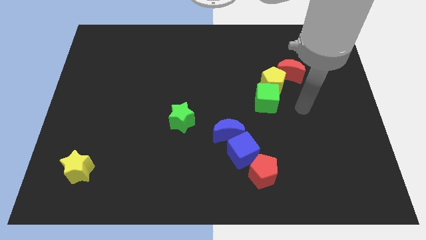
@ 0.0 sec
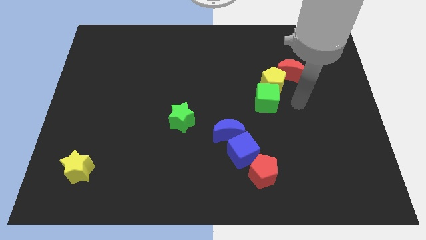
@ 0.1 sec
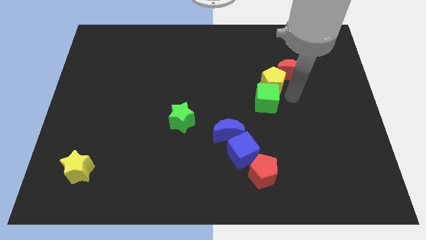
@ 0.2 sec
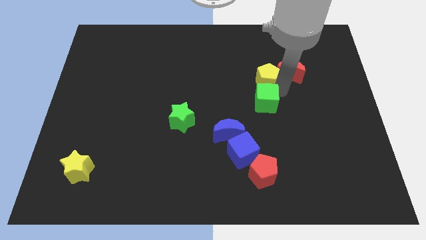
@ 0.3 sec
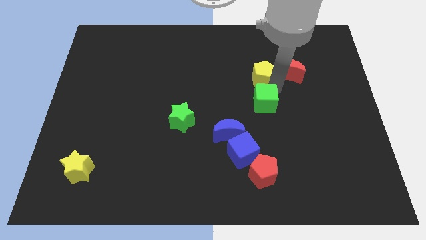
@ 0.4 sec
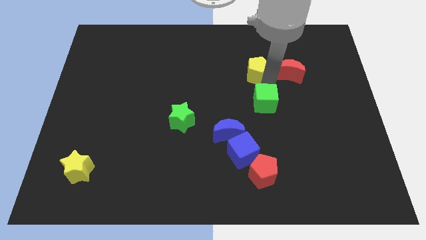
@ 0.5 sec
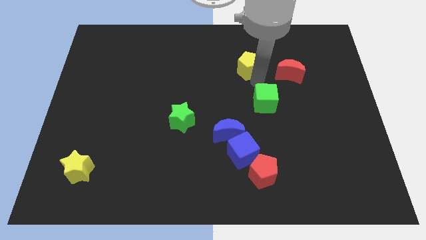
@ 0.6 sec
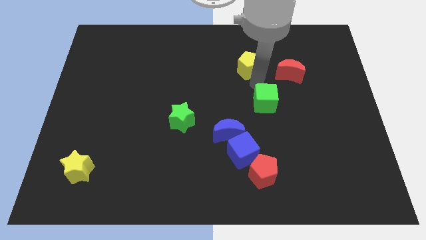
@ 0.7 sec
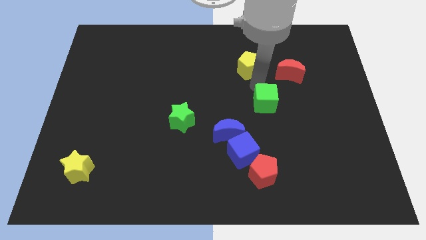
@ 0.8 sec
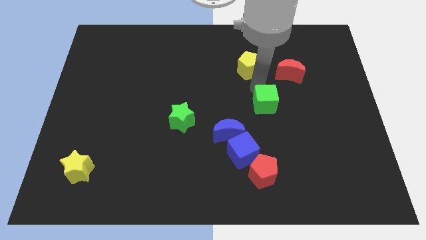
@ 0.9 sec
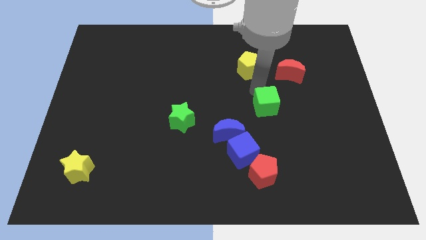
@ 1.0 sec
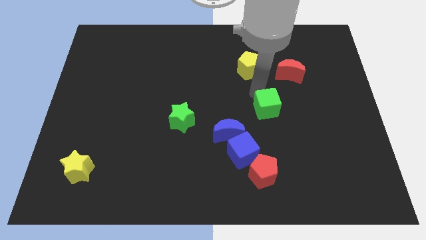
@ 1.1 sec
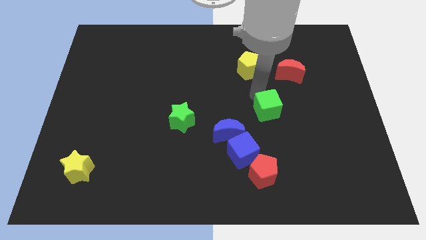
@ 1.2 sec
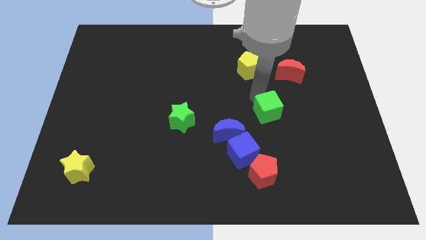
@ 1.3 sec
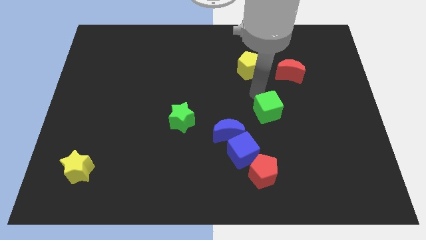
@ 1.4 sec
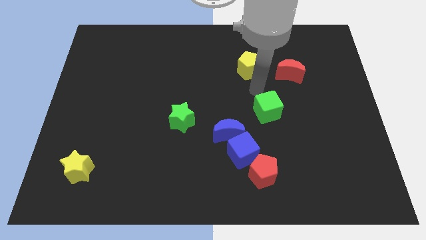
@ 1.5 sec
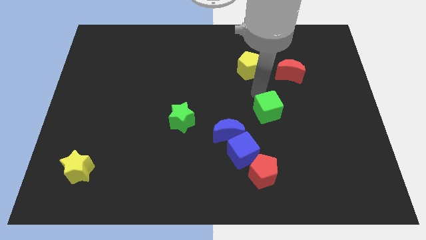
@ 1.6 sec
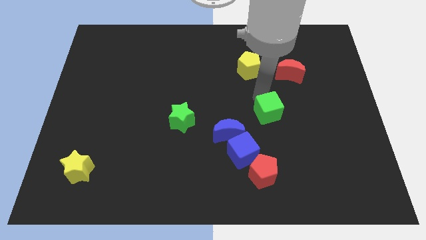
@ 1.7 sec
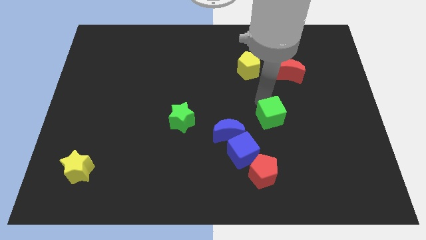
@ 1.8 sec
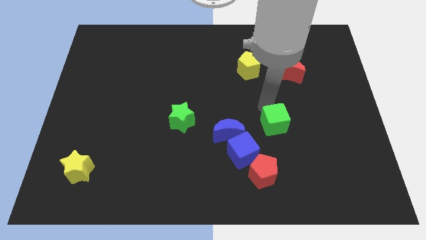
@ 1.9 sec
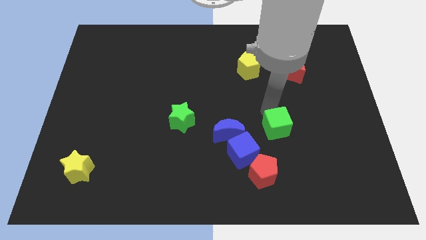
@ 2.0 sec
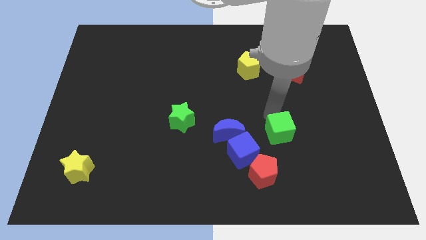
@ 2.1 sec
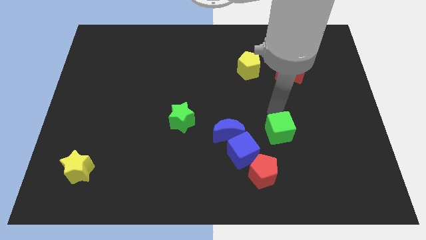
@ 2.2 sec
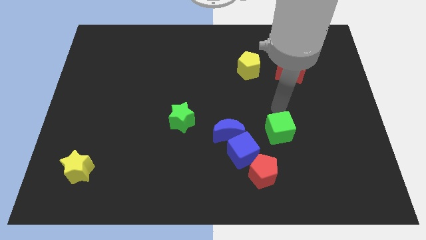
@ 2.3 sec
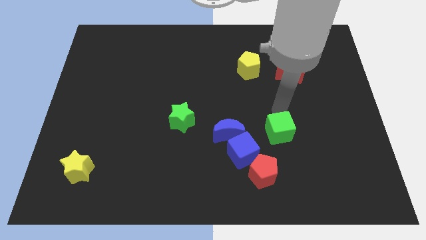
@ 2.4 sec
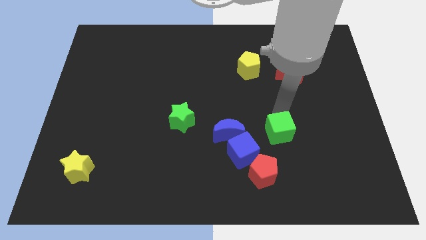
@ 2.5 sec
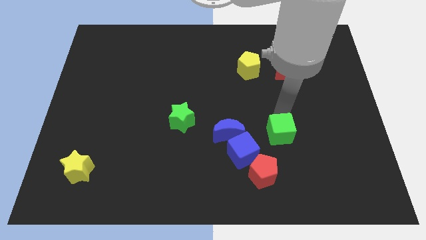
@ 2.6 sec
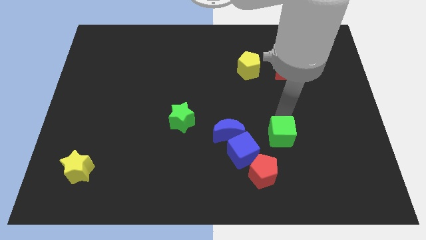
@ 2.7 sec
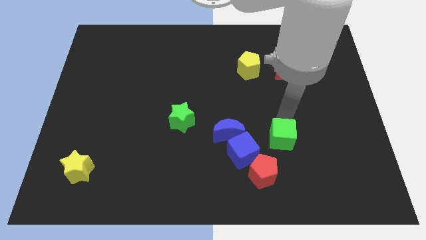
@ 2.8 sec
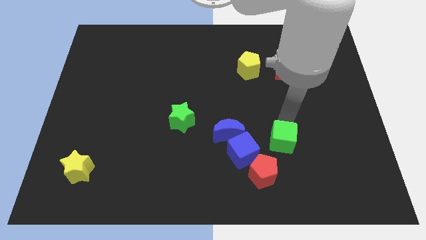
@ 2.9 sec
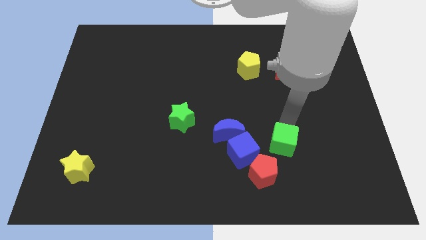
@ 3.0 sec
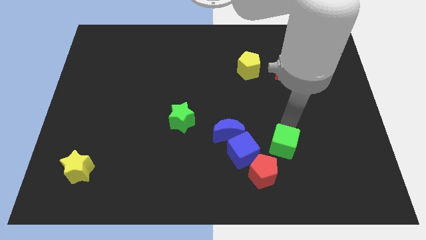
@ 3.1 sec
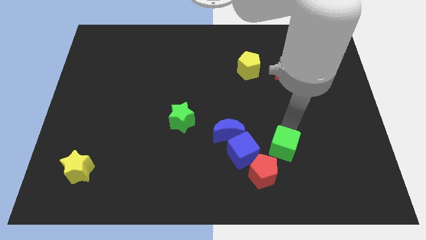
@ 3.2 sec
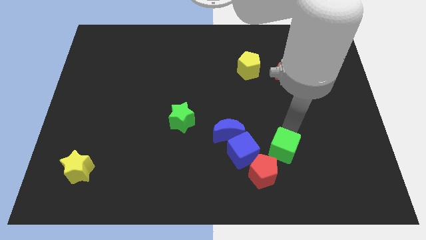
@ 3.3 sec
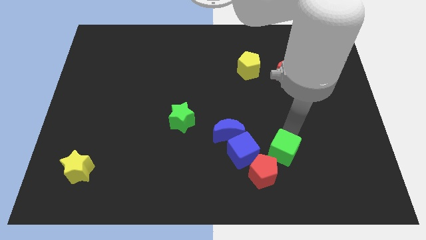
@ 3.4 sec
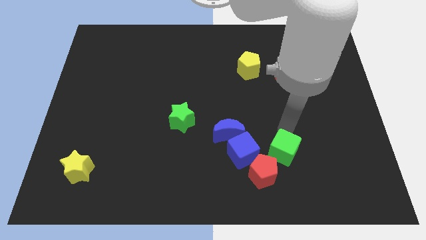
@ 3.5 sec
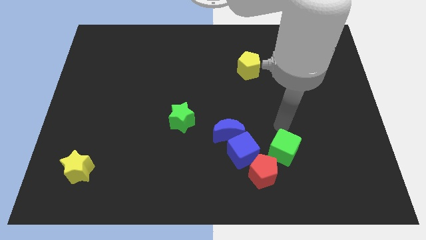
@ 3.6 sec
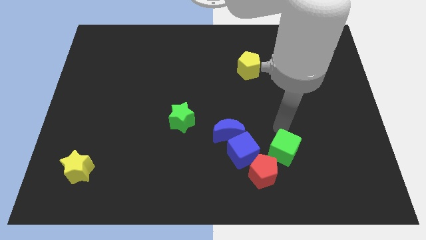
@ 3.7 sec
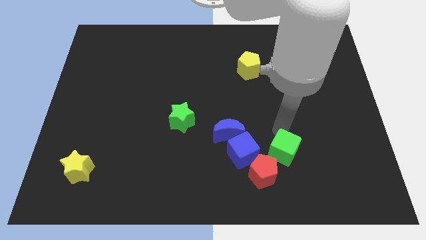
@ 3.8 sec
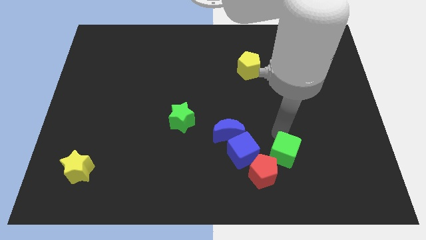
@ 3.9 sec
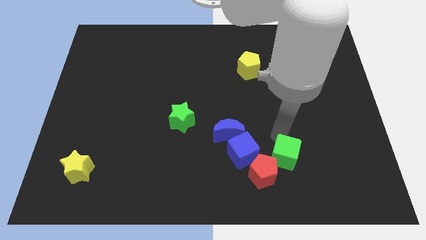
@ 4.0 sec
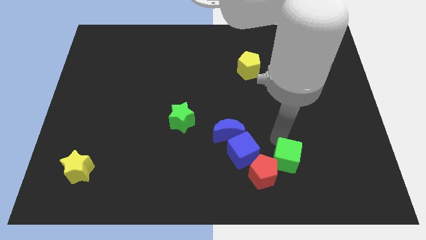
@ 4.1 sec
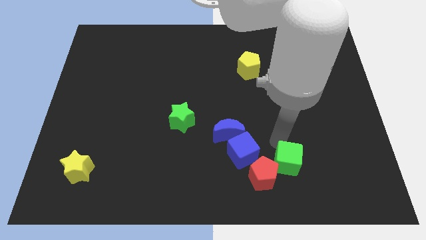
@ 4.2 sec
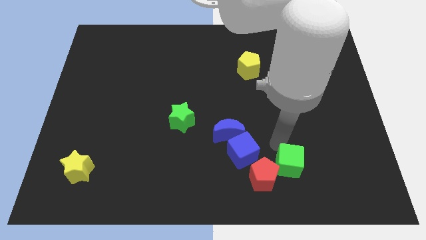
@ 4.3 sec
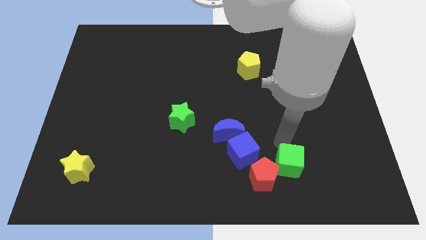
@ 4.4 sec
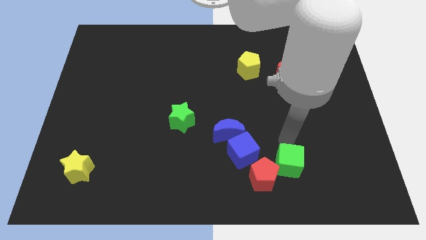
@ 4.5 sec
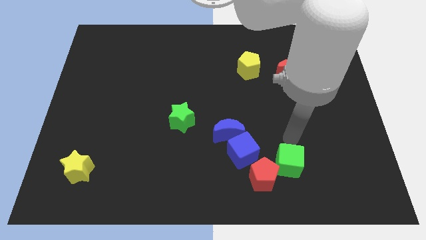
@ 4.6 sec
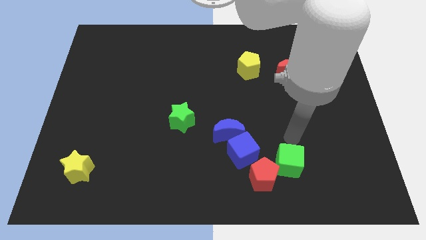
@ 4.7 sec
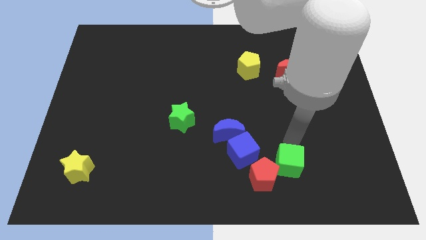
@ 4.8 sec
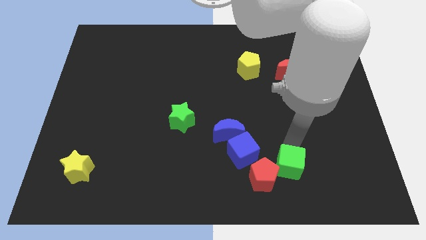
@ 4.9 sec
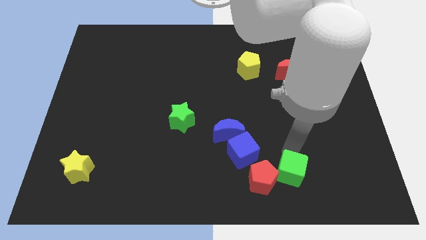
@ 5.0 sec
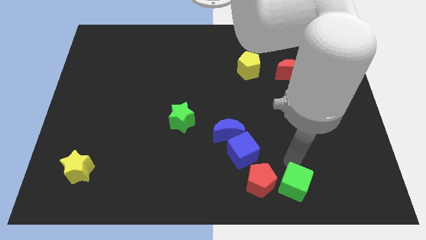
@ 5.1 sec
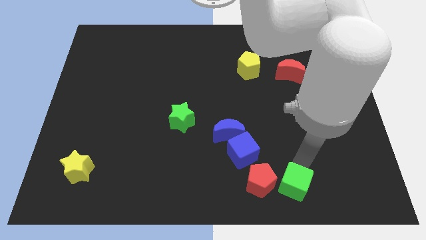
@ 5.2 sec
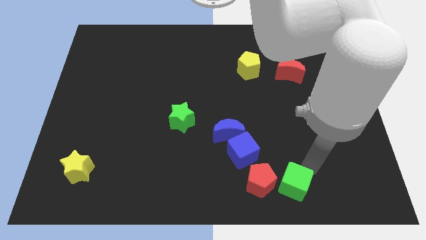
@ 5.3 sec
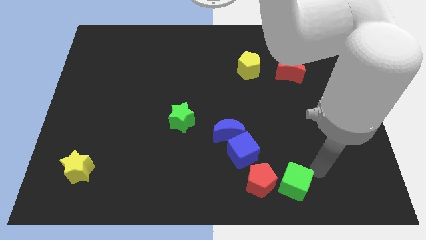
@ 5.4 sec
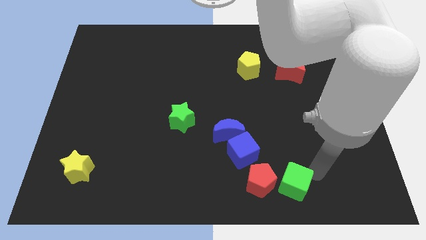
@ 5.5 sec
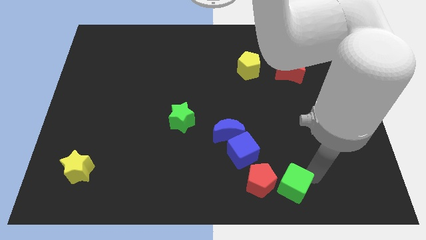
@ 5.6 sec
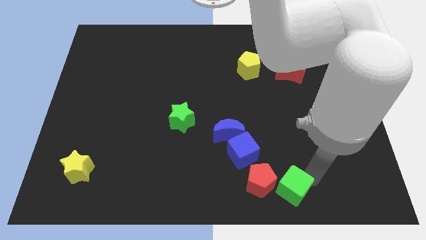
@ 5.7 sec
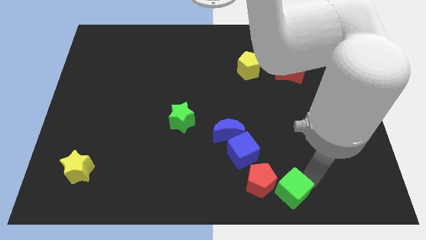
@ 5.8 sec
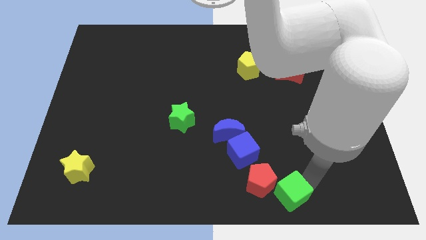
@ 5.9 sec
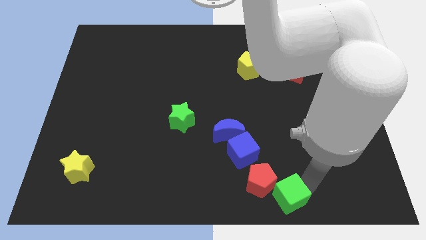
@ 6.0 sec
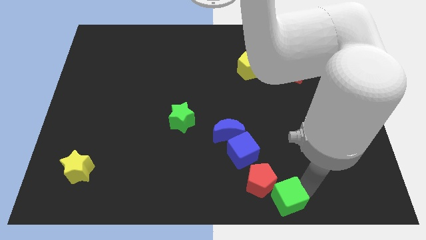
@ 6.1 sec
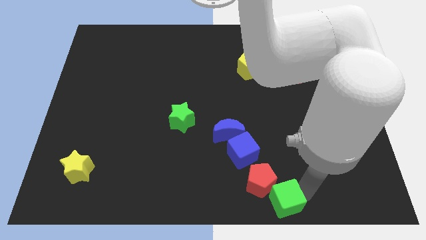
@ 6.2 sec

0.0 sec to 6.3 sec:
put the green cube to the bottom side
